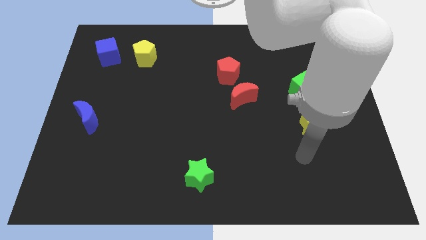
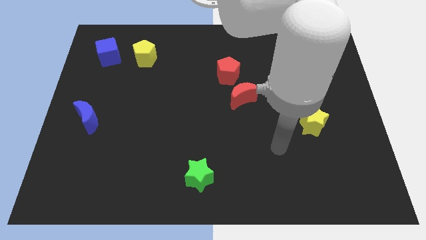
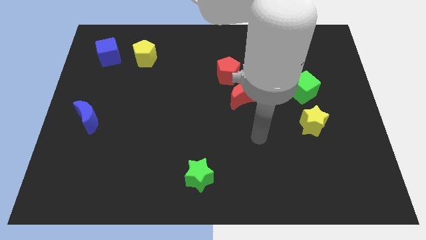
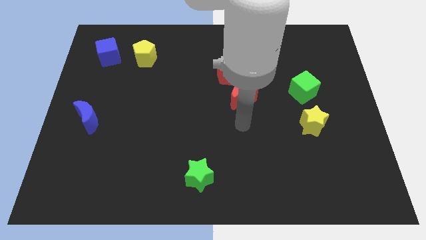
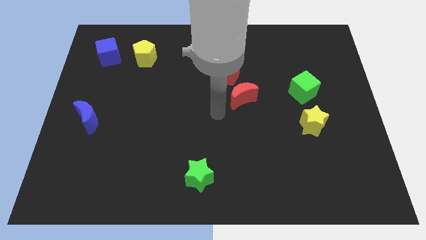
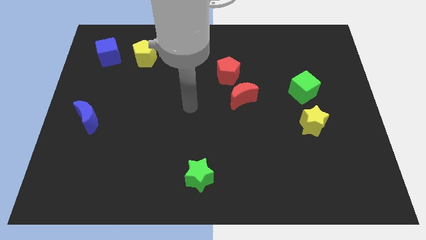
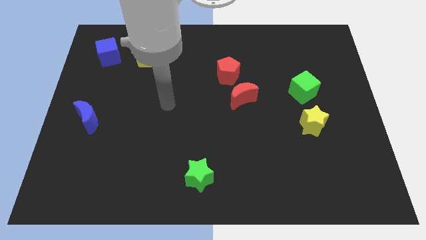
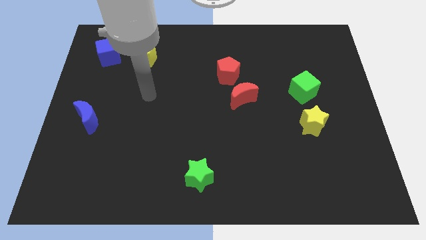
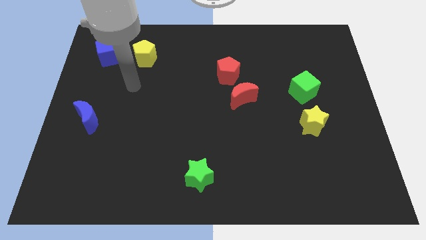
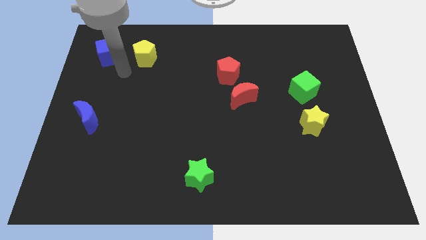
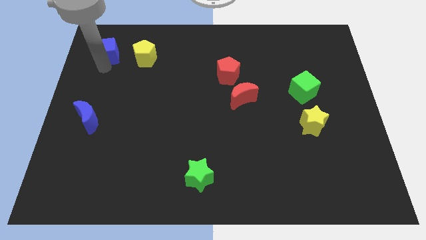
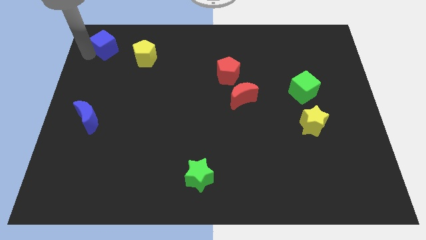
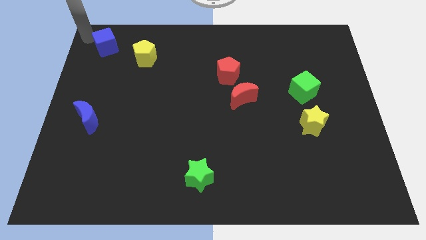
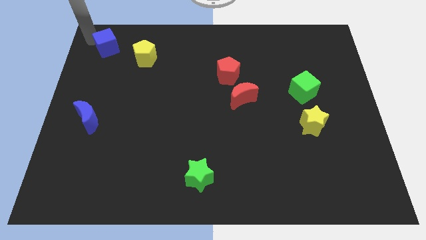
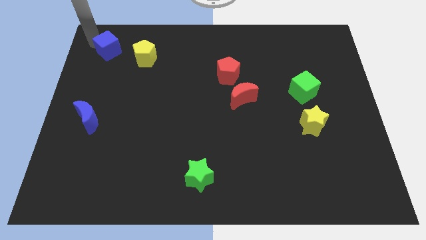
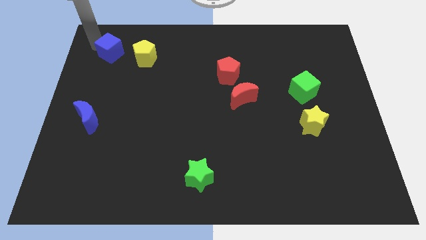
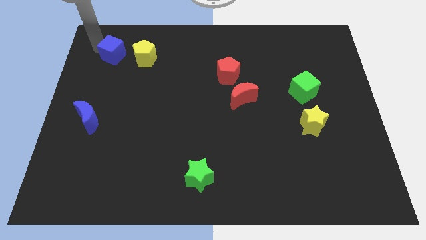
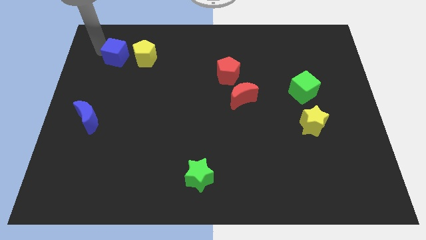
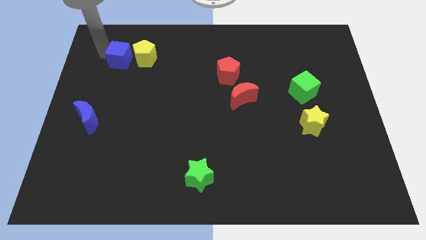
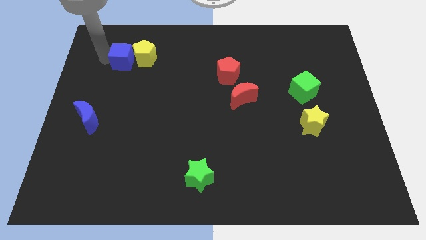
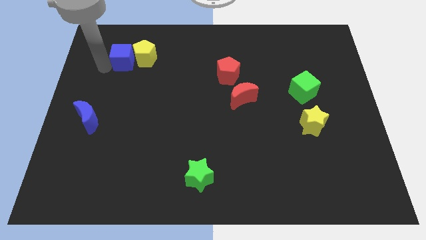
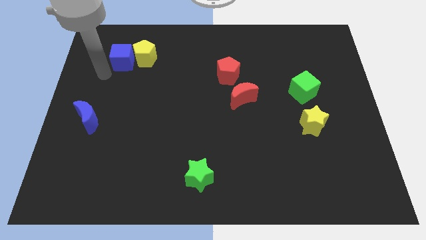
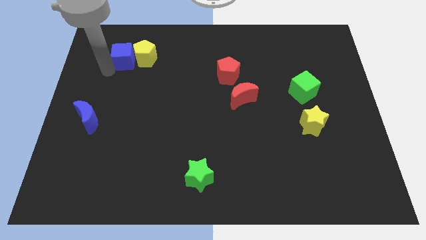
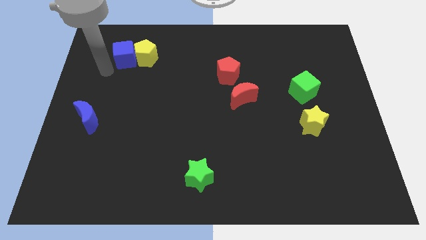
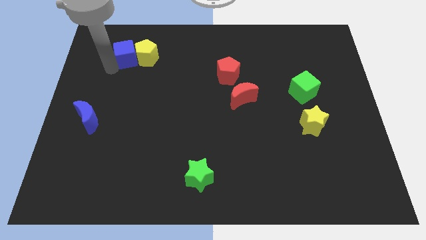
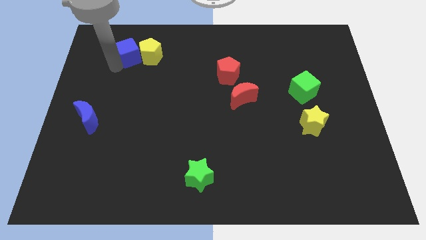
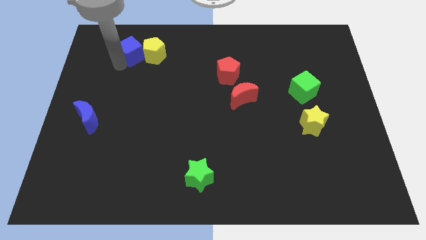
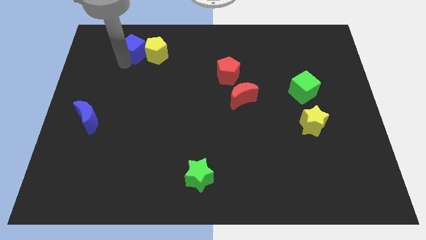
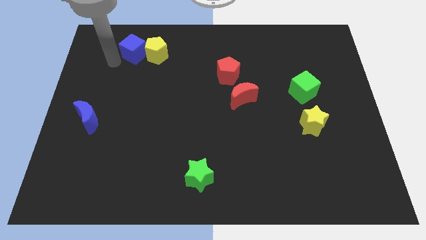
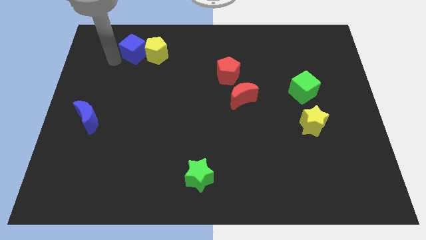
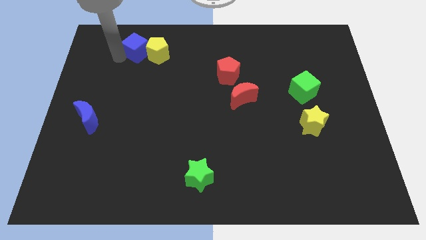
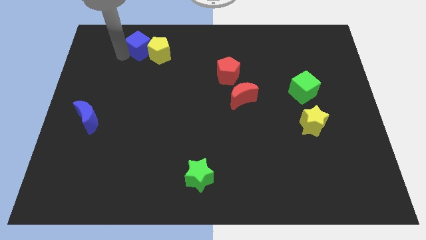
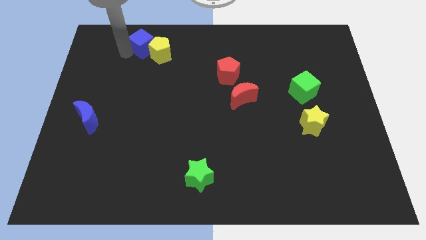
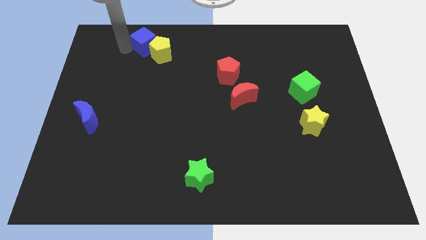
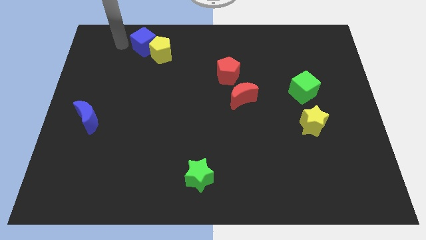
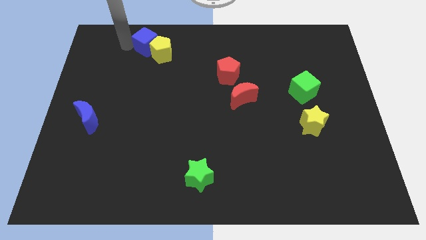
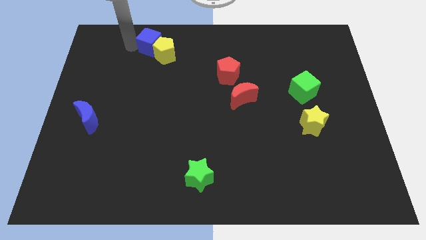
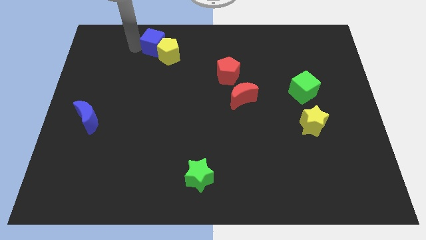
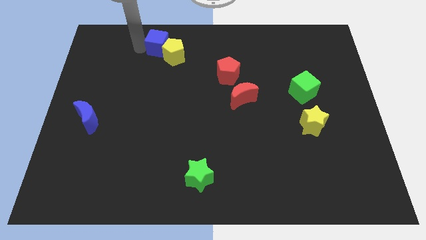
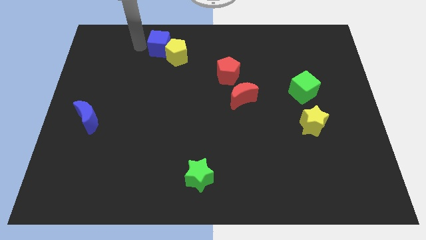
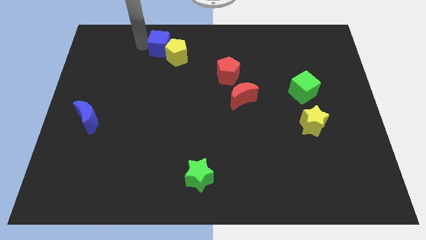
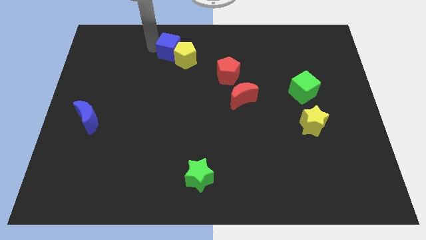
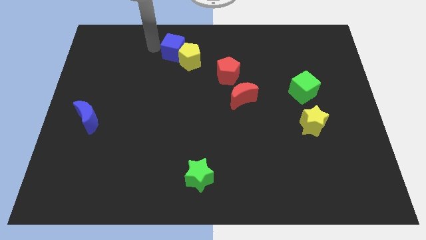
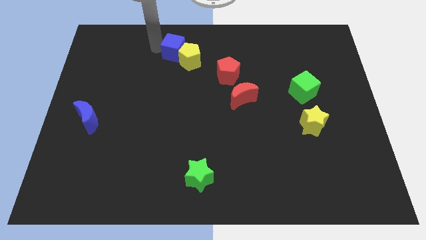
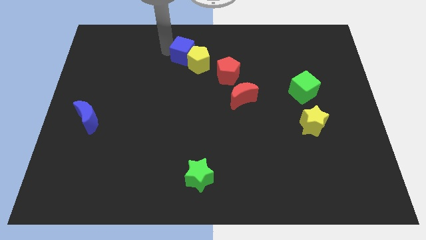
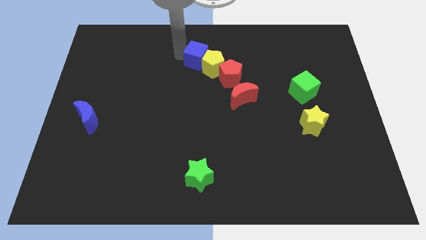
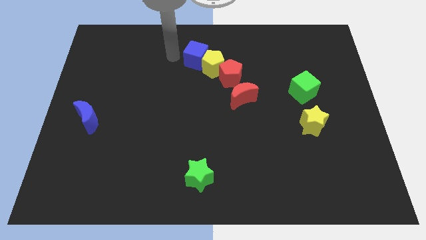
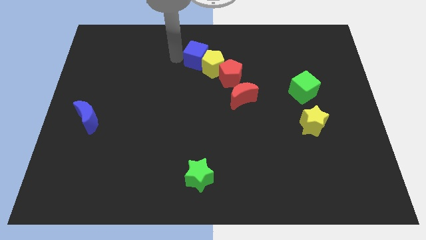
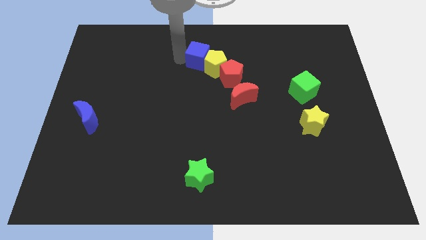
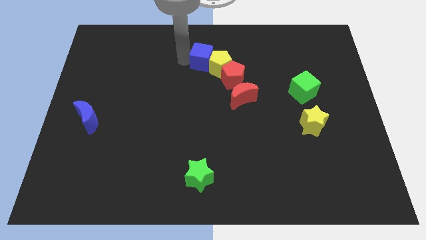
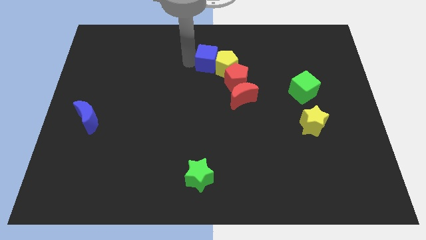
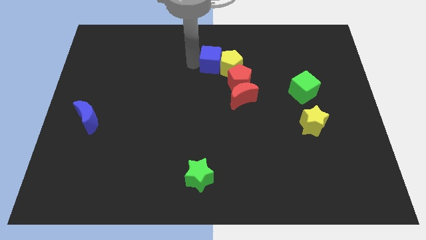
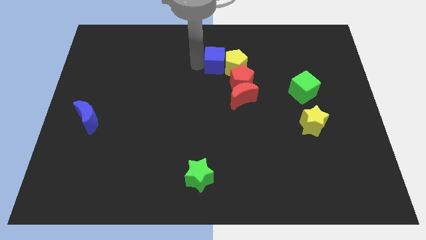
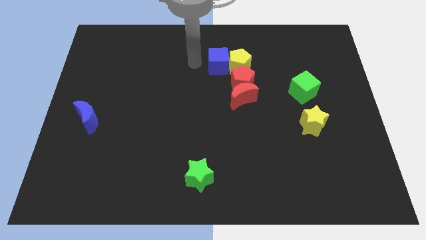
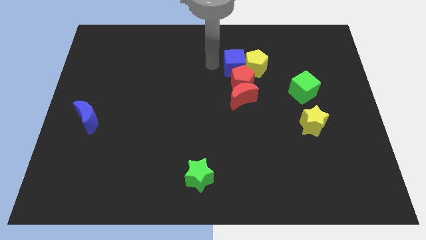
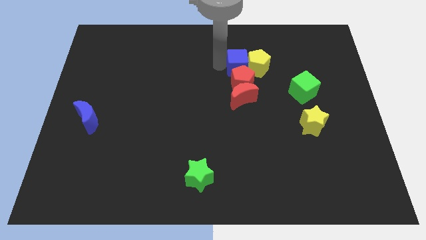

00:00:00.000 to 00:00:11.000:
put the blue cube to the top right side of the red pentagon

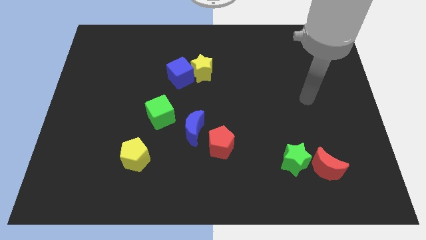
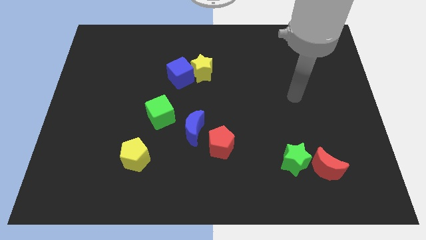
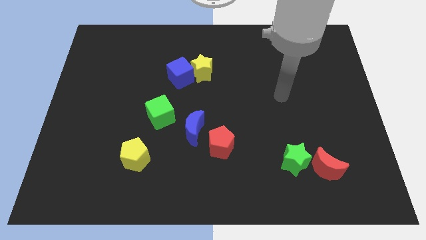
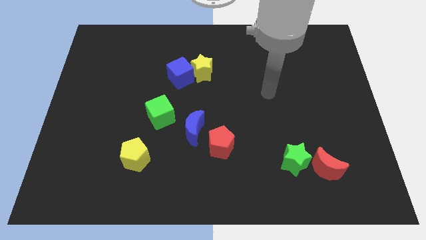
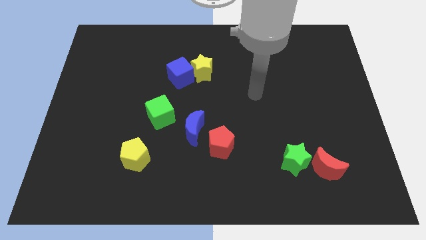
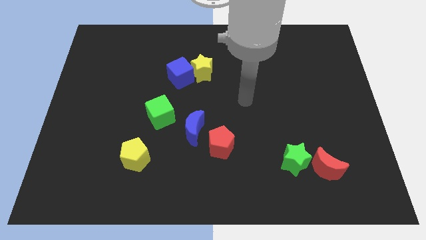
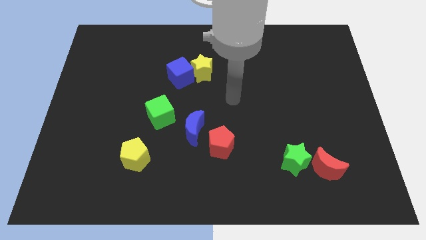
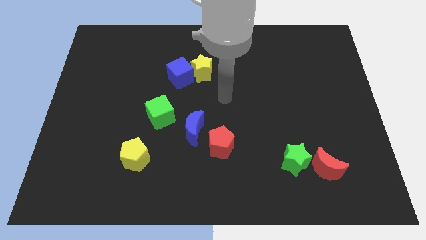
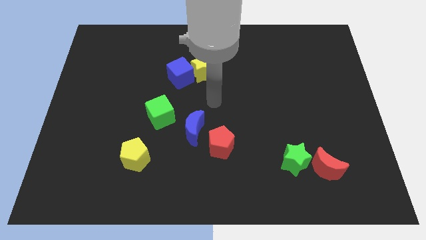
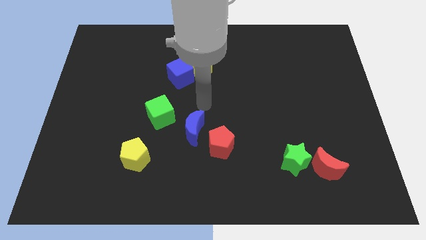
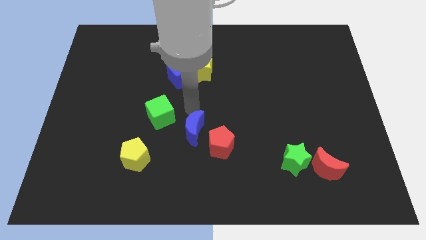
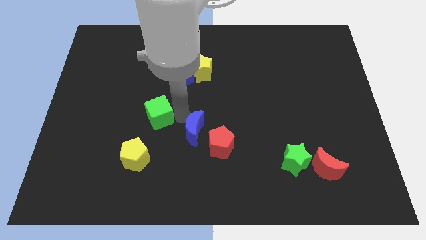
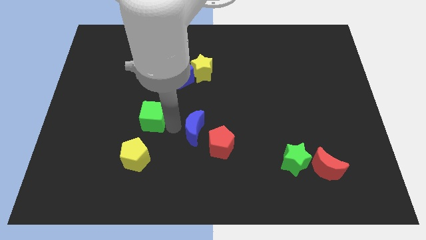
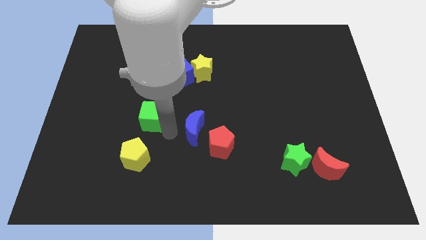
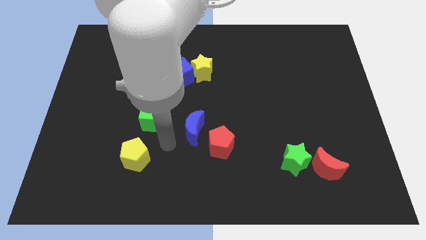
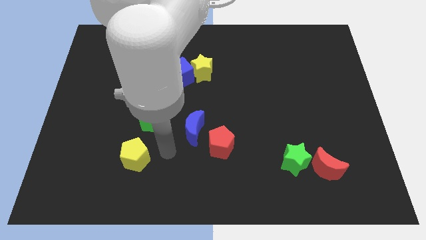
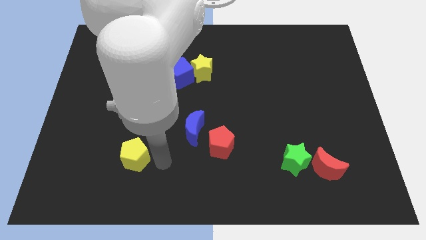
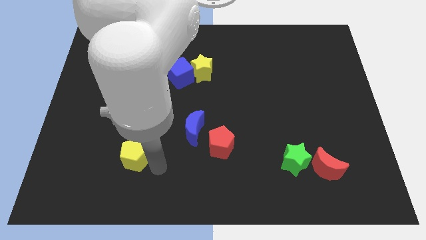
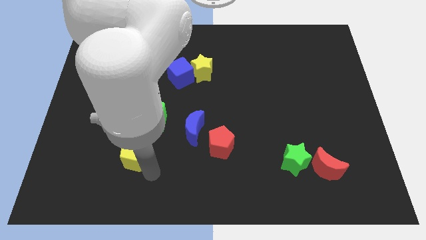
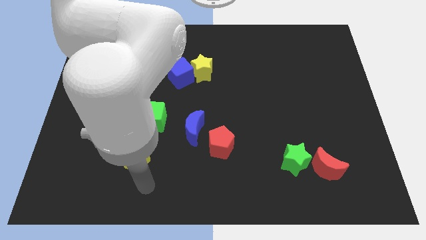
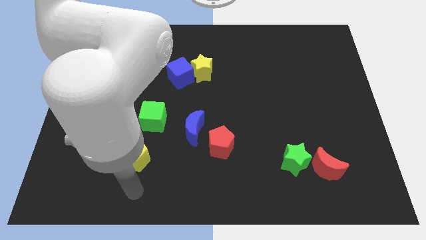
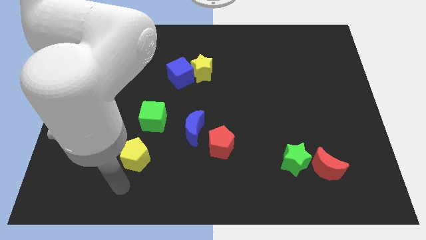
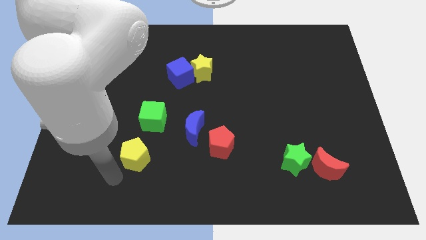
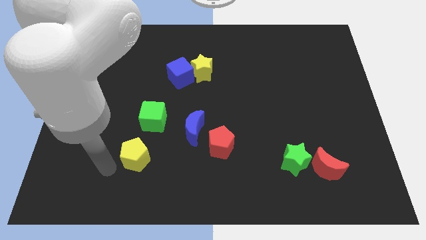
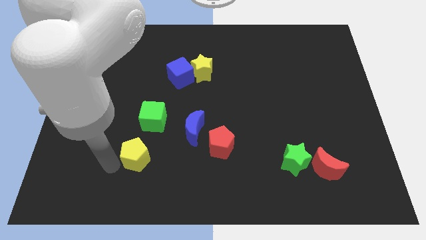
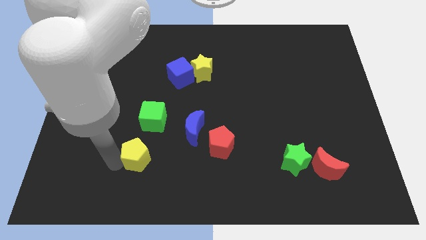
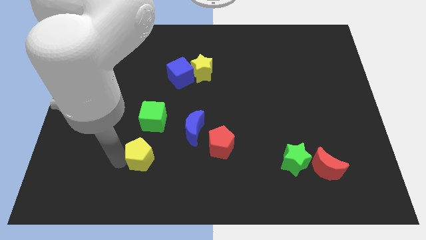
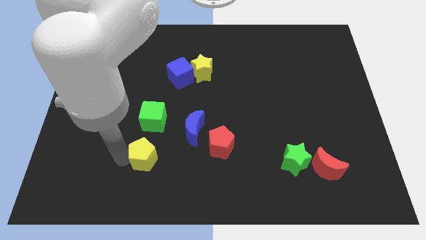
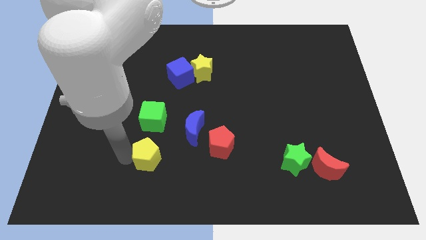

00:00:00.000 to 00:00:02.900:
push the yellow pentagon just left of the red pentagon
